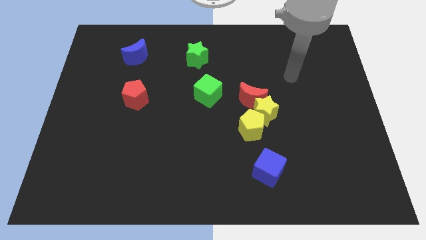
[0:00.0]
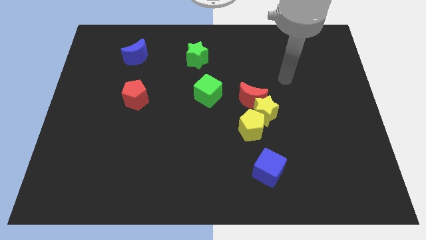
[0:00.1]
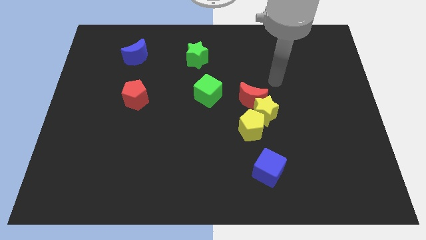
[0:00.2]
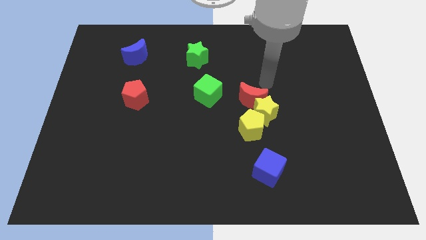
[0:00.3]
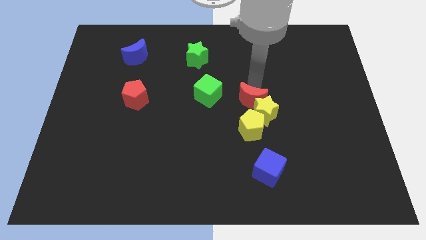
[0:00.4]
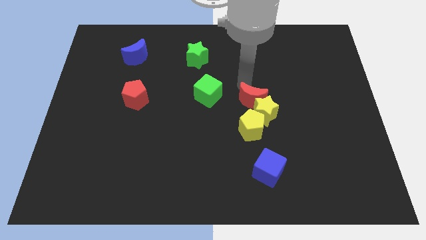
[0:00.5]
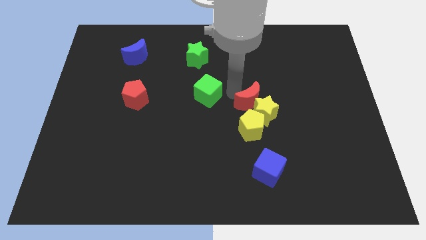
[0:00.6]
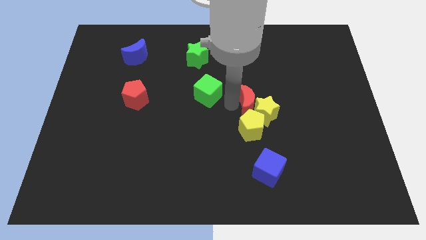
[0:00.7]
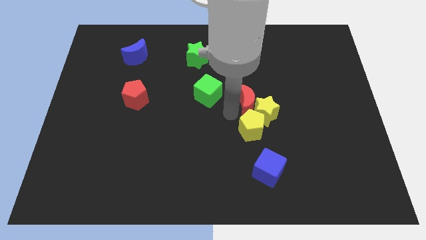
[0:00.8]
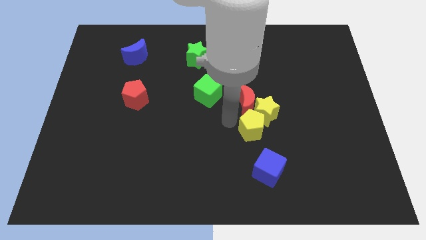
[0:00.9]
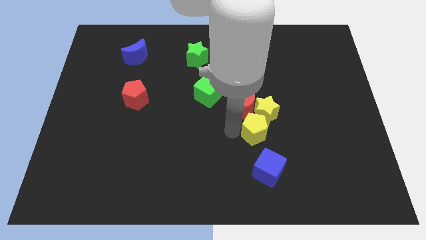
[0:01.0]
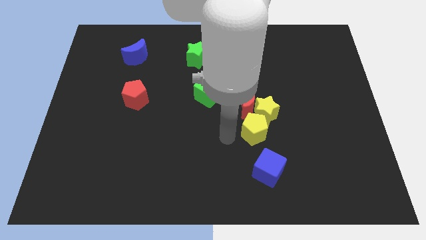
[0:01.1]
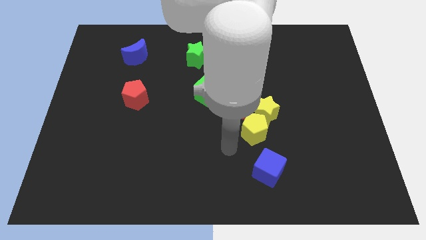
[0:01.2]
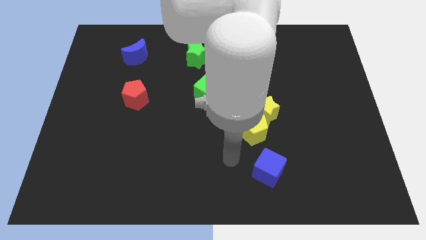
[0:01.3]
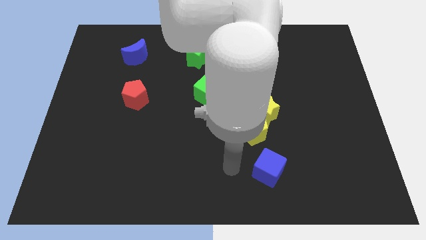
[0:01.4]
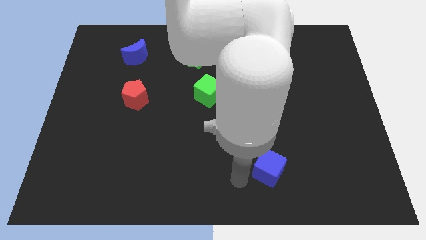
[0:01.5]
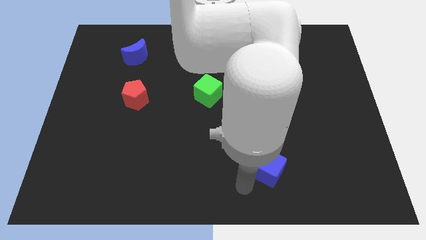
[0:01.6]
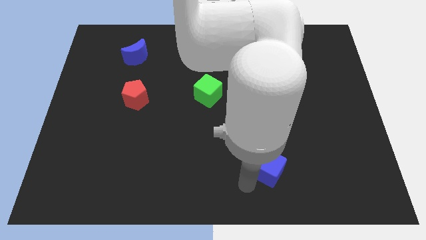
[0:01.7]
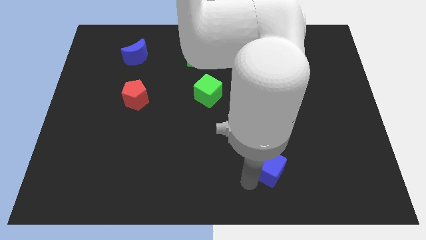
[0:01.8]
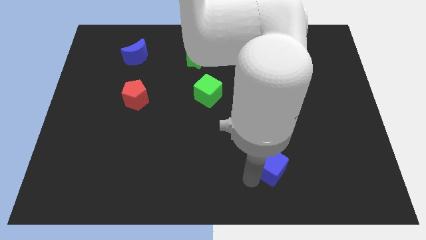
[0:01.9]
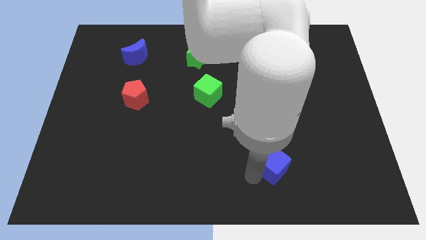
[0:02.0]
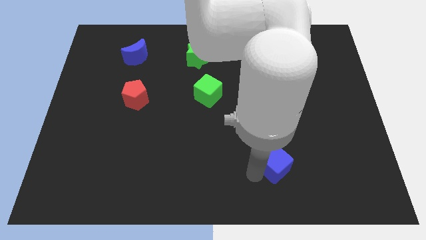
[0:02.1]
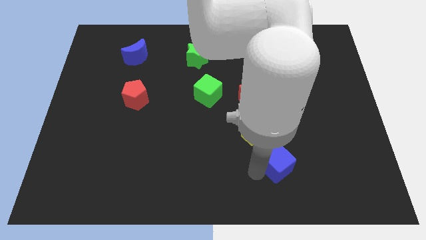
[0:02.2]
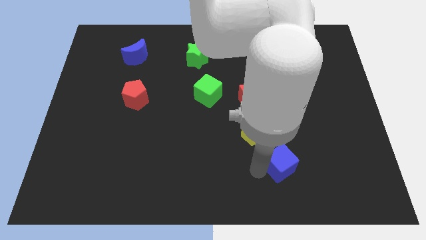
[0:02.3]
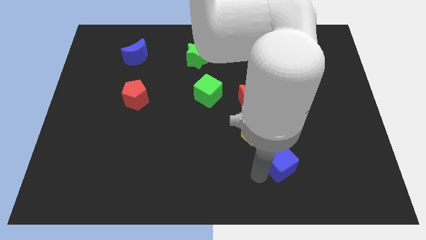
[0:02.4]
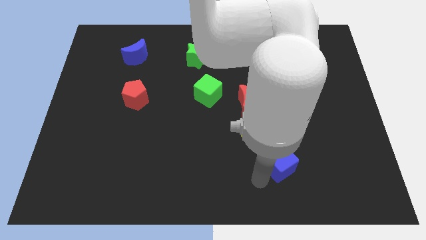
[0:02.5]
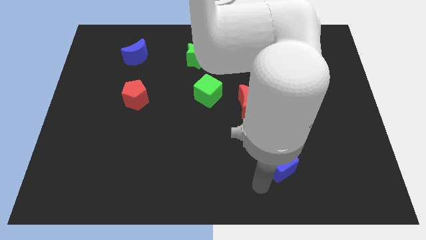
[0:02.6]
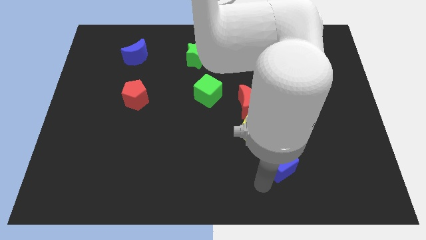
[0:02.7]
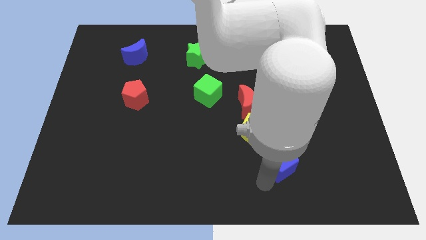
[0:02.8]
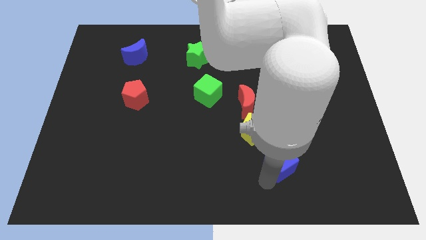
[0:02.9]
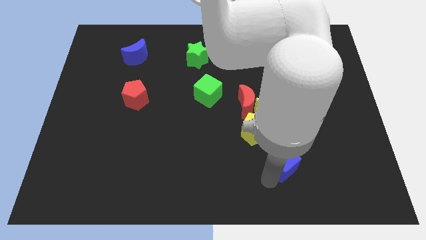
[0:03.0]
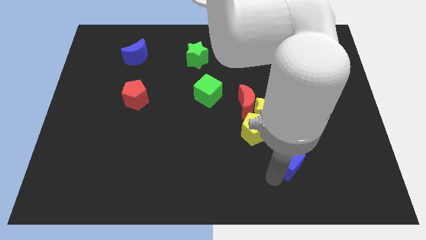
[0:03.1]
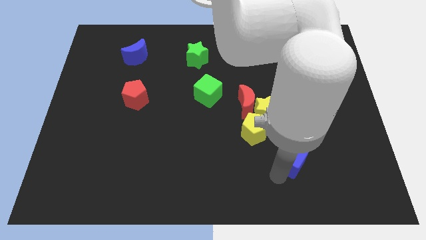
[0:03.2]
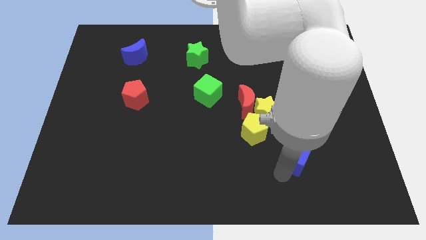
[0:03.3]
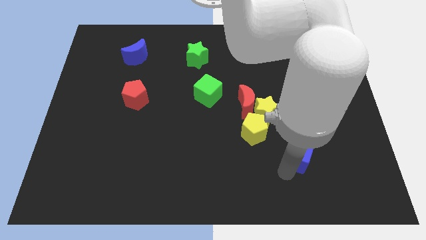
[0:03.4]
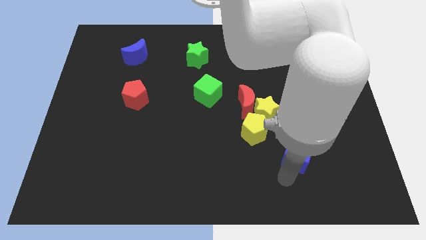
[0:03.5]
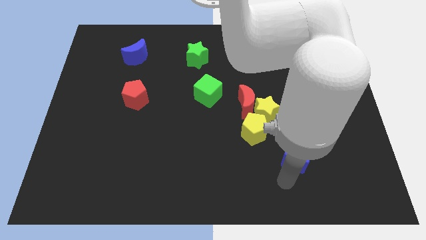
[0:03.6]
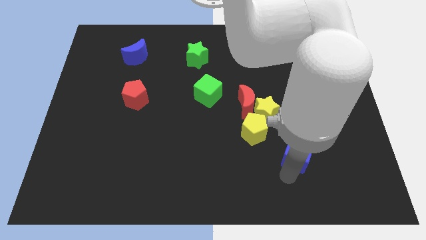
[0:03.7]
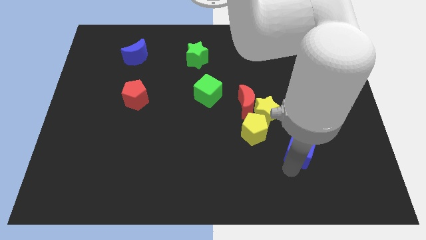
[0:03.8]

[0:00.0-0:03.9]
slightly push the blue cube upwards and right

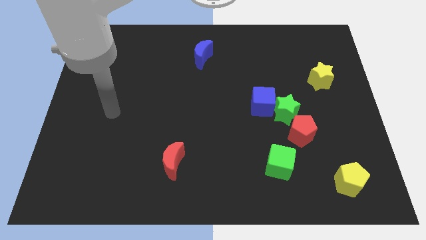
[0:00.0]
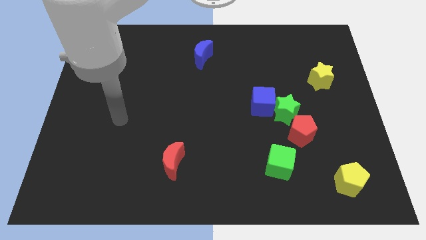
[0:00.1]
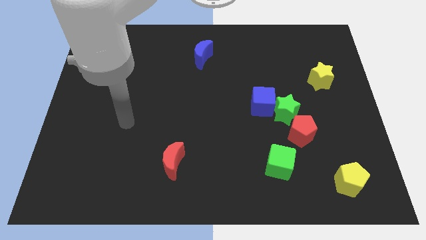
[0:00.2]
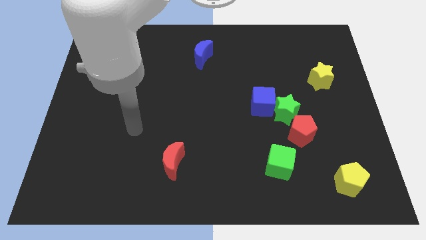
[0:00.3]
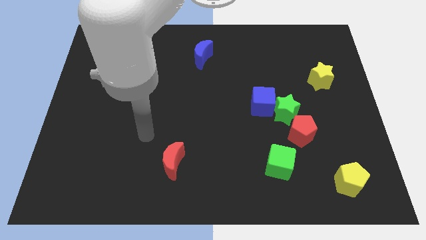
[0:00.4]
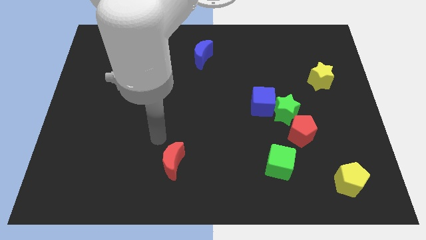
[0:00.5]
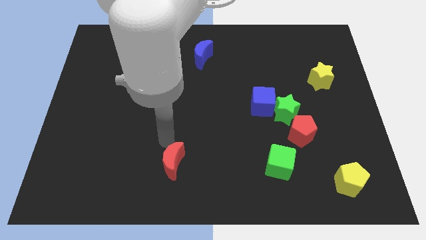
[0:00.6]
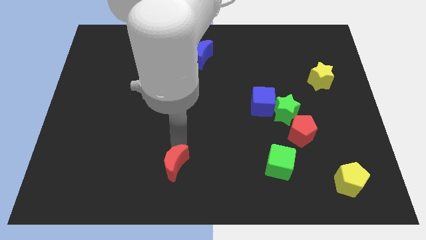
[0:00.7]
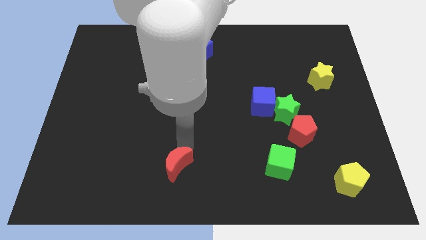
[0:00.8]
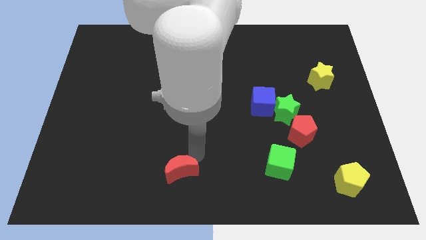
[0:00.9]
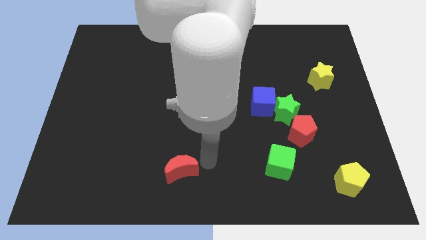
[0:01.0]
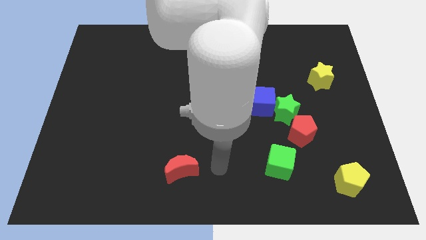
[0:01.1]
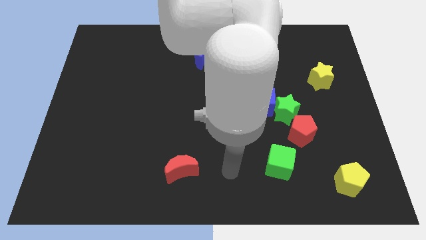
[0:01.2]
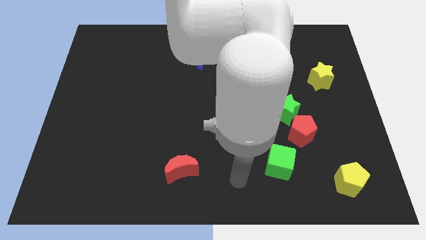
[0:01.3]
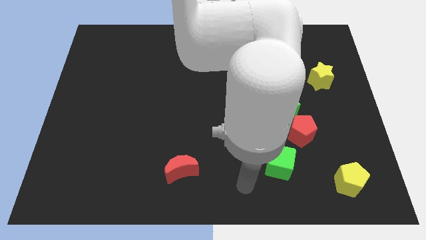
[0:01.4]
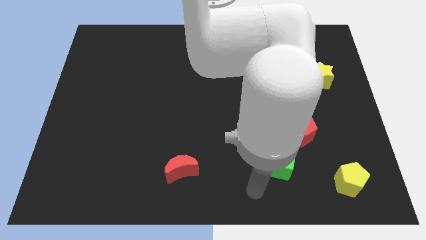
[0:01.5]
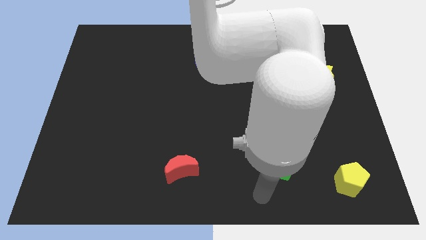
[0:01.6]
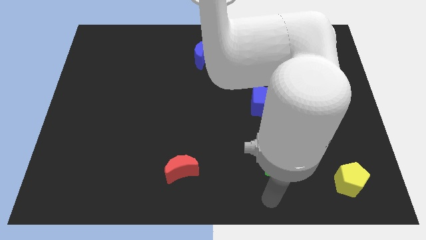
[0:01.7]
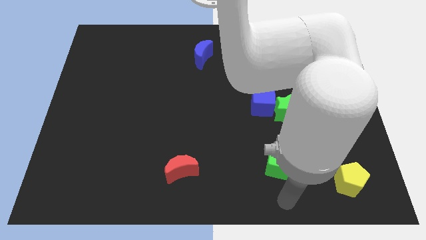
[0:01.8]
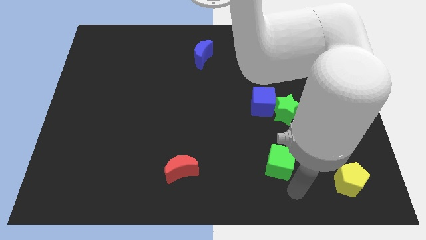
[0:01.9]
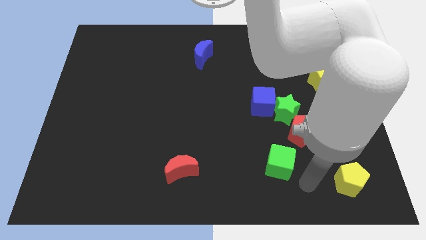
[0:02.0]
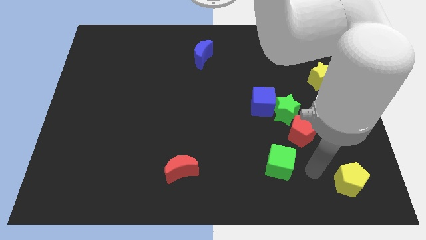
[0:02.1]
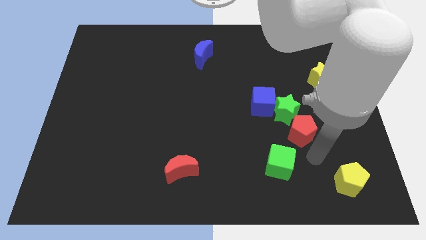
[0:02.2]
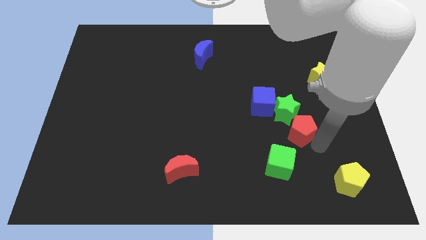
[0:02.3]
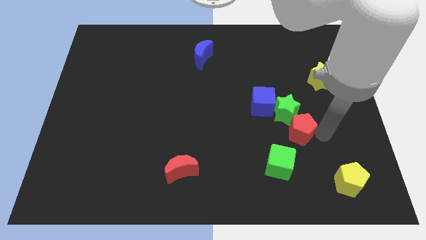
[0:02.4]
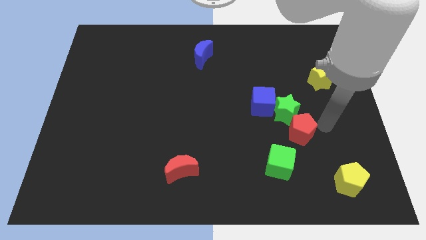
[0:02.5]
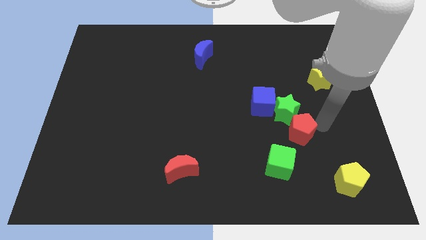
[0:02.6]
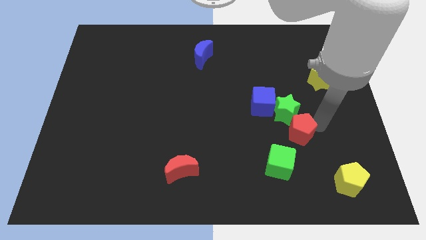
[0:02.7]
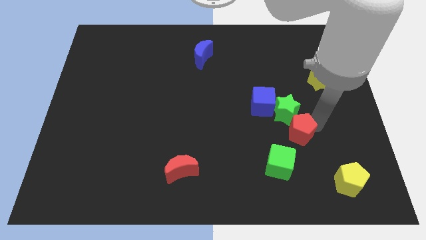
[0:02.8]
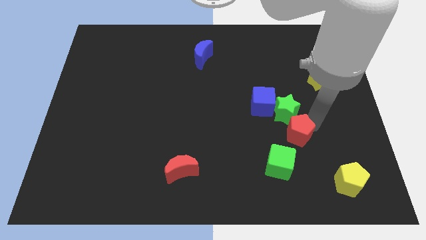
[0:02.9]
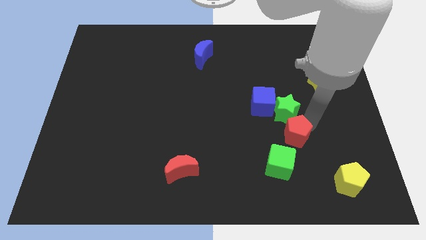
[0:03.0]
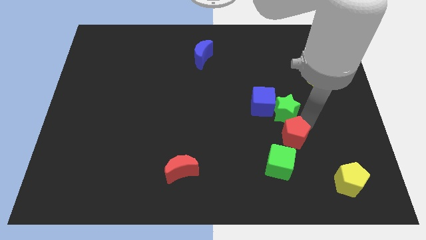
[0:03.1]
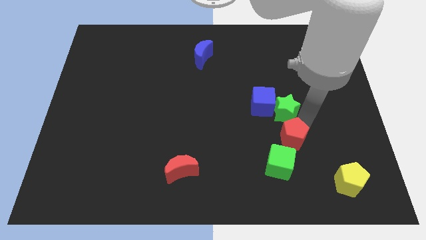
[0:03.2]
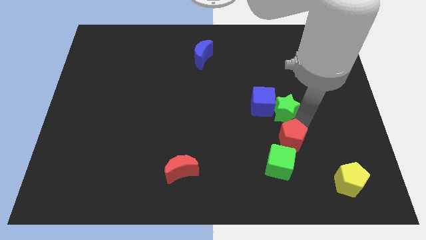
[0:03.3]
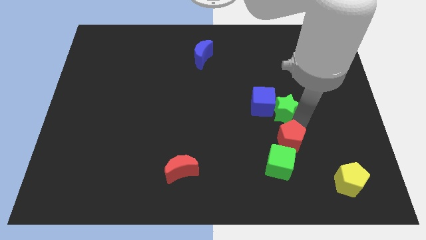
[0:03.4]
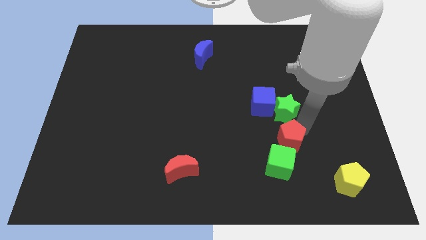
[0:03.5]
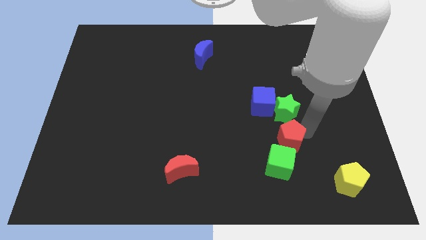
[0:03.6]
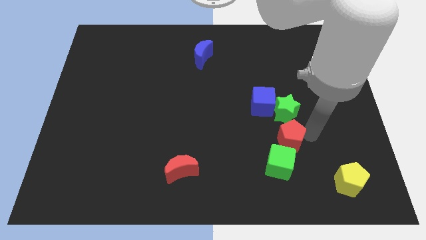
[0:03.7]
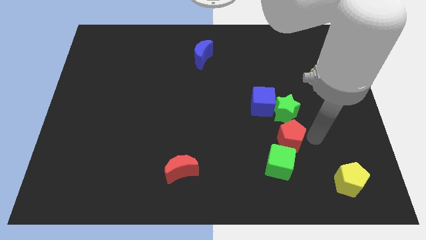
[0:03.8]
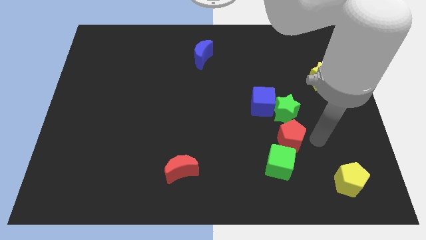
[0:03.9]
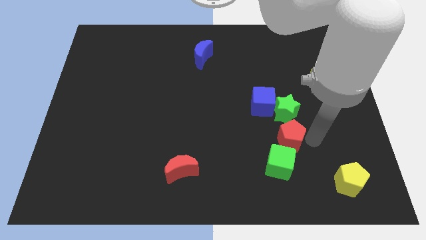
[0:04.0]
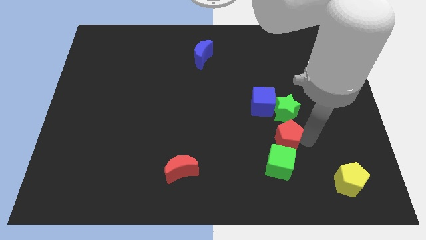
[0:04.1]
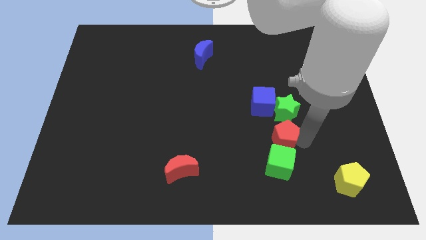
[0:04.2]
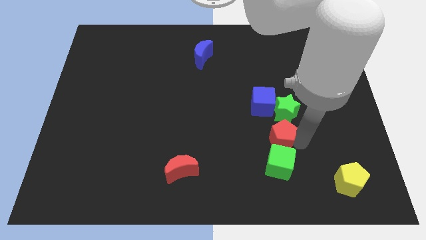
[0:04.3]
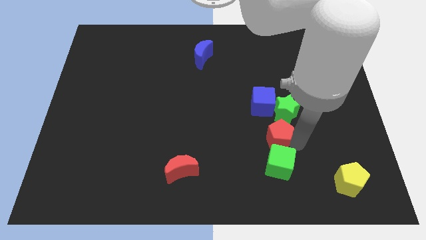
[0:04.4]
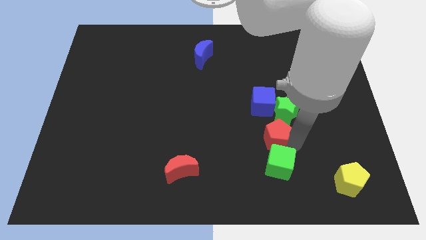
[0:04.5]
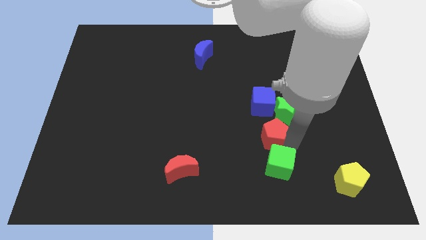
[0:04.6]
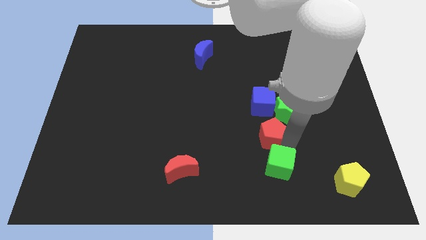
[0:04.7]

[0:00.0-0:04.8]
slide the red pentagon slightly left
